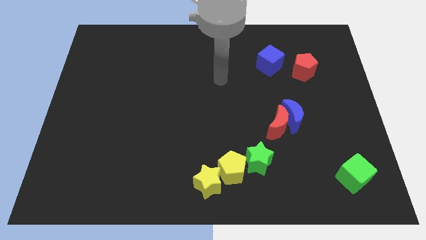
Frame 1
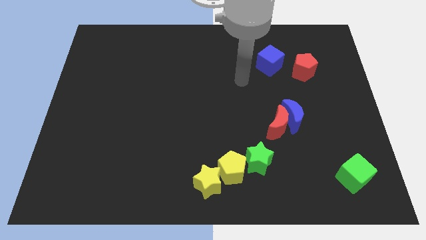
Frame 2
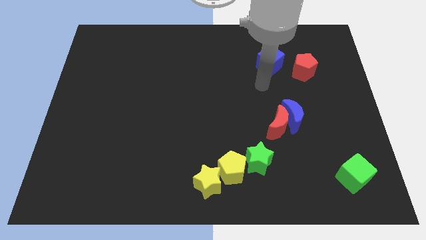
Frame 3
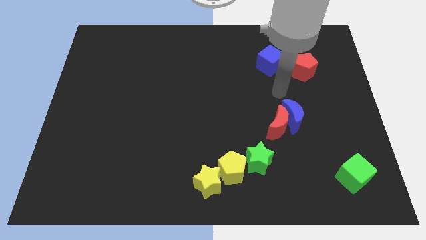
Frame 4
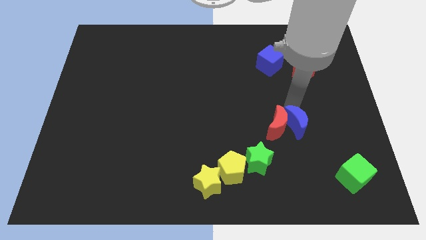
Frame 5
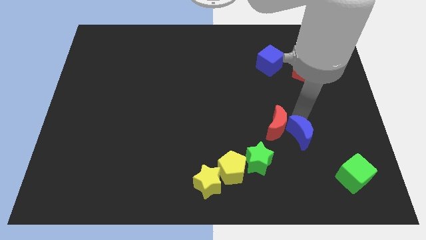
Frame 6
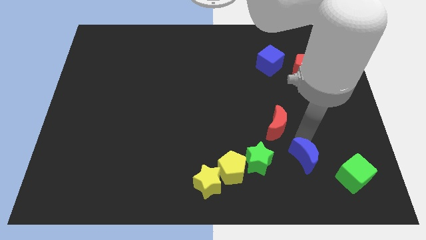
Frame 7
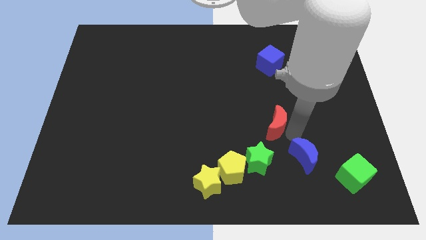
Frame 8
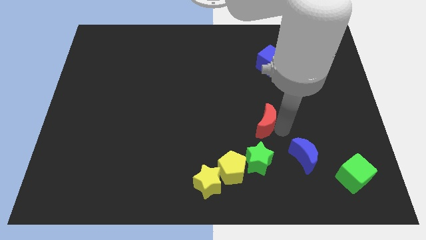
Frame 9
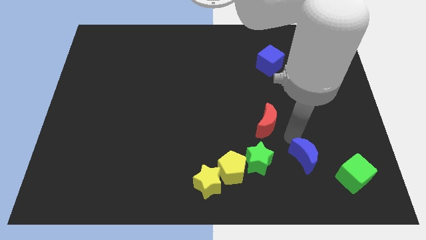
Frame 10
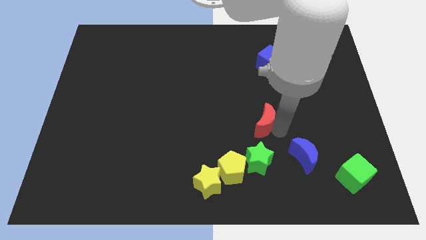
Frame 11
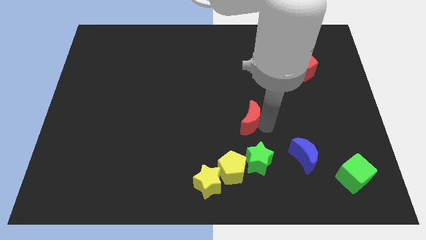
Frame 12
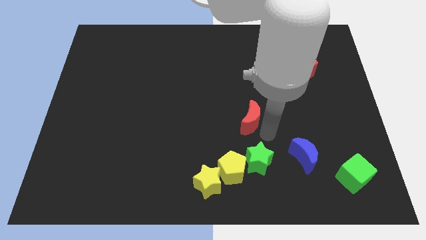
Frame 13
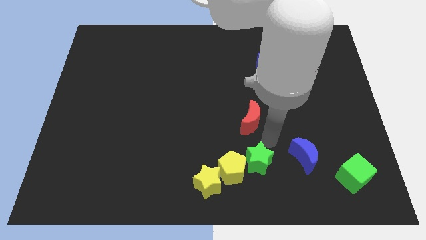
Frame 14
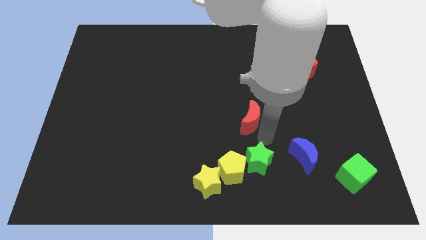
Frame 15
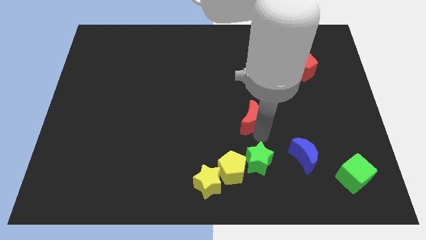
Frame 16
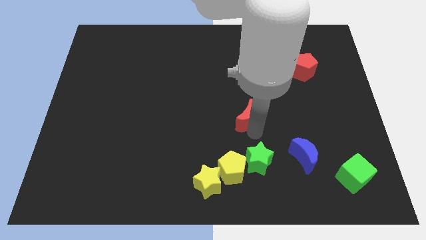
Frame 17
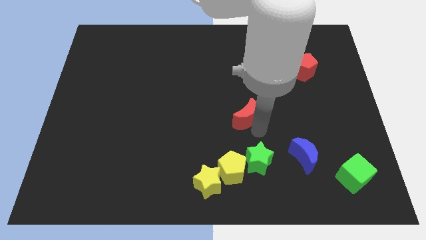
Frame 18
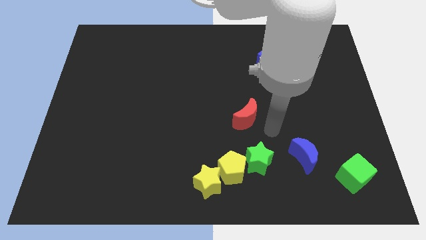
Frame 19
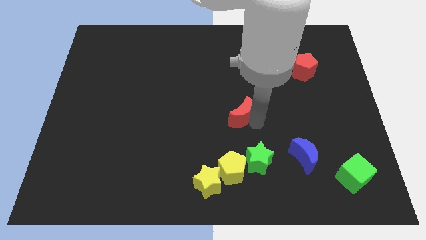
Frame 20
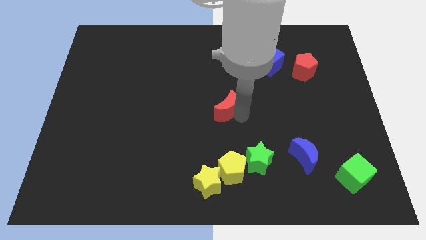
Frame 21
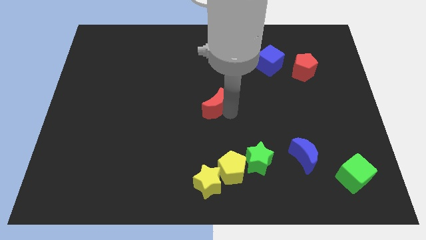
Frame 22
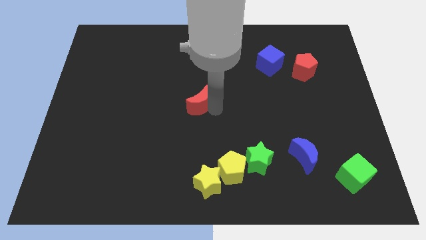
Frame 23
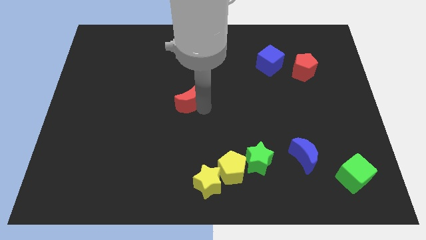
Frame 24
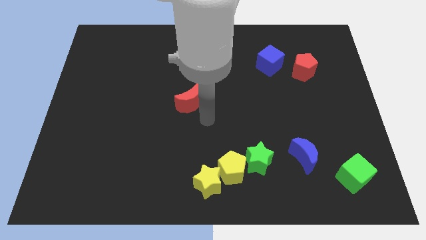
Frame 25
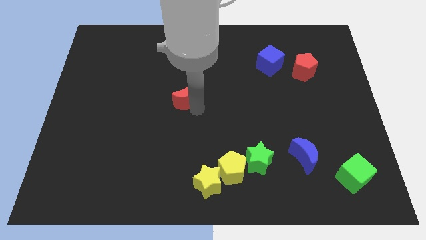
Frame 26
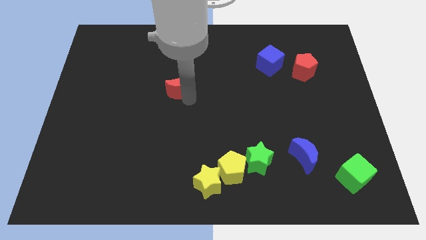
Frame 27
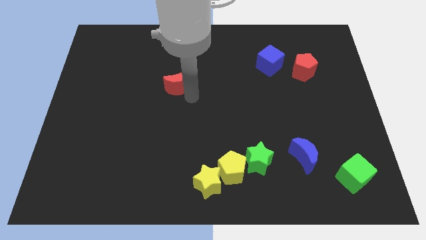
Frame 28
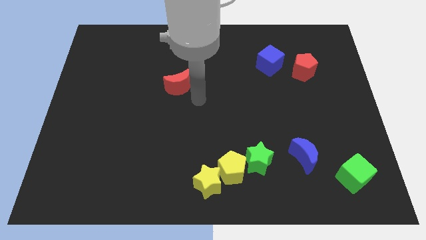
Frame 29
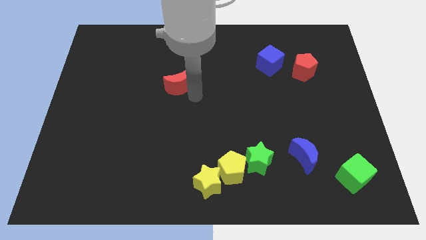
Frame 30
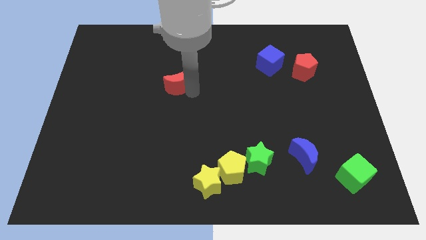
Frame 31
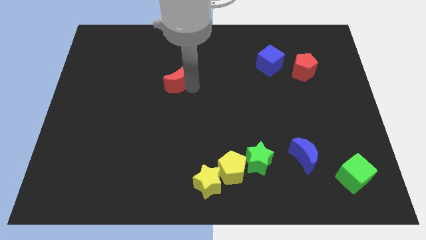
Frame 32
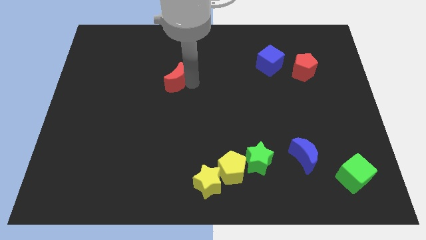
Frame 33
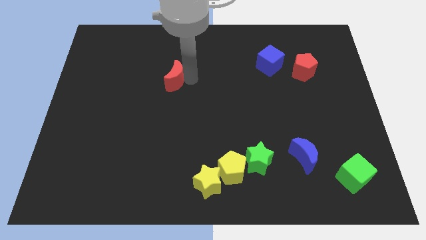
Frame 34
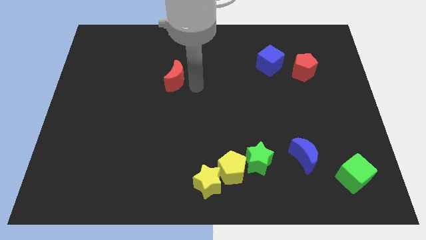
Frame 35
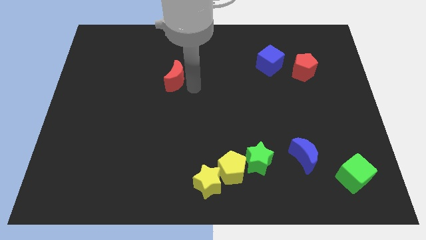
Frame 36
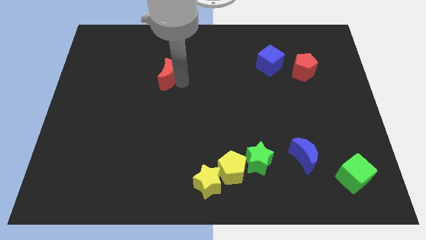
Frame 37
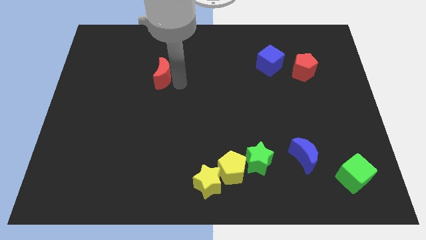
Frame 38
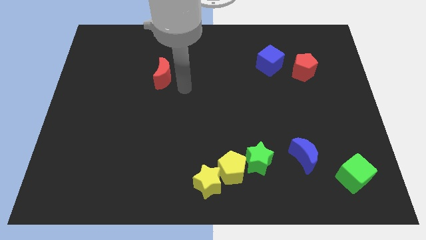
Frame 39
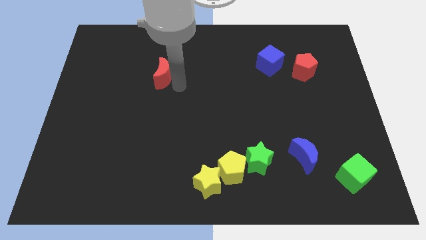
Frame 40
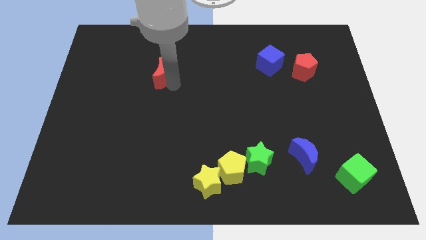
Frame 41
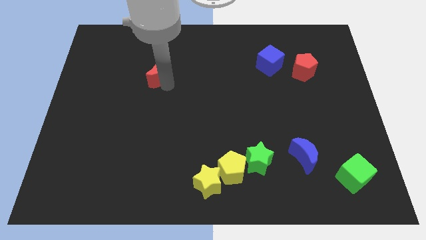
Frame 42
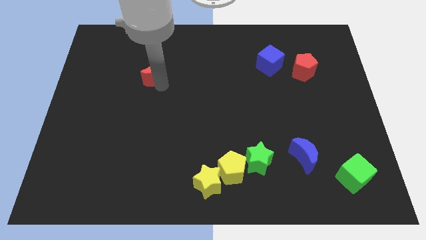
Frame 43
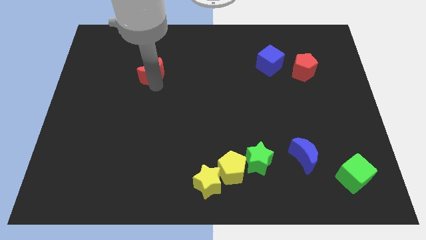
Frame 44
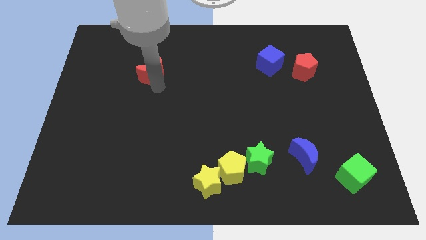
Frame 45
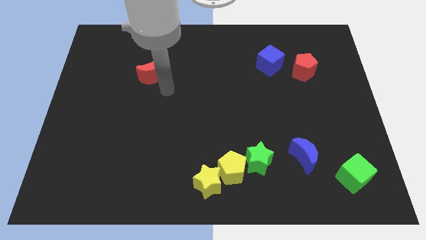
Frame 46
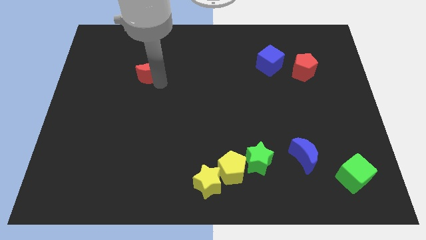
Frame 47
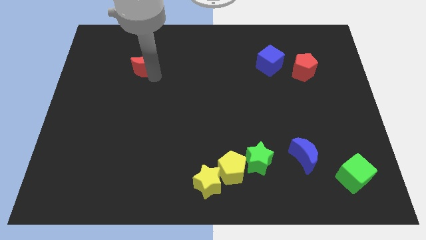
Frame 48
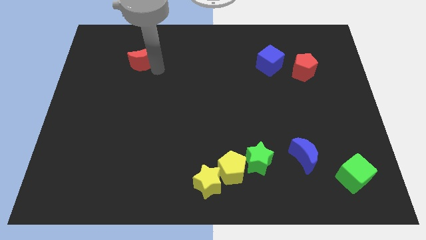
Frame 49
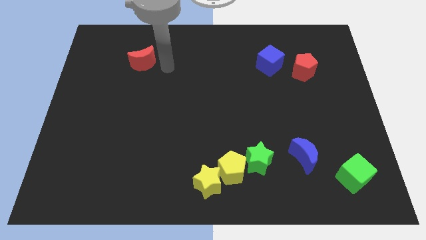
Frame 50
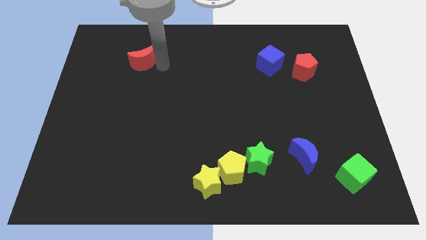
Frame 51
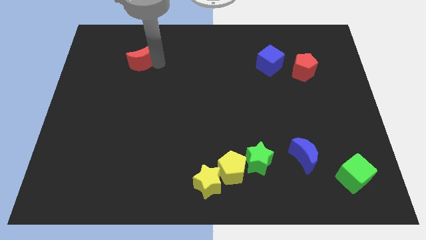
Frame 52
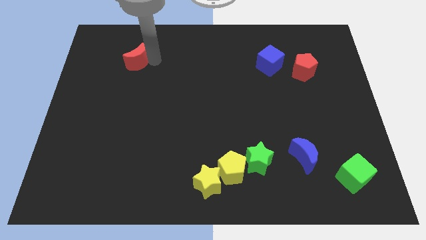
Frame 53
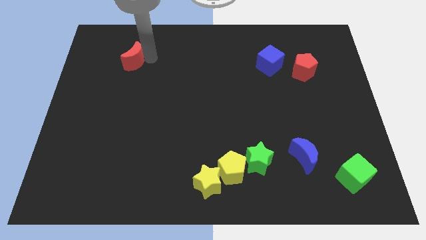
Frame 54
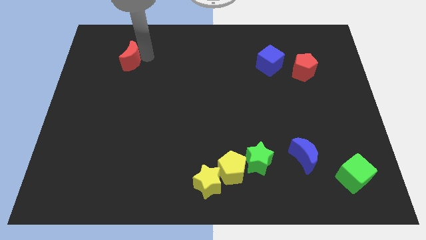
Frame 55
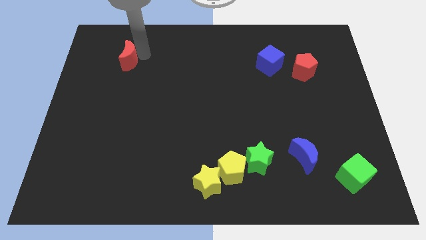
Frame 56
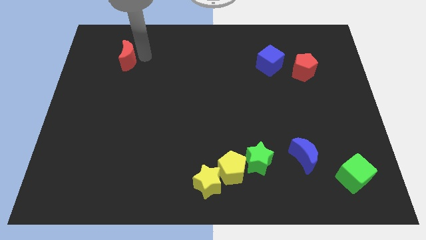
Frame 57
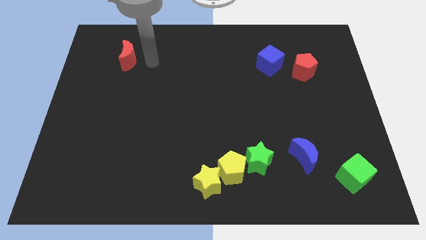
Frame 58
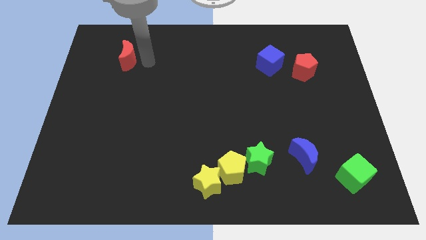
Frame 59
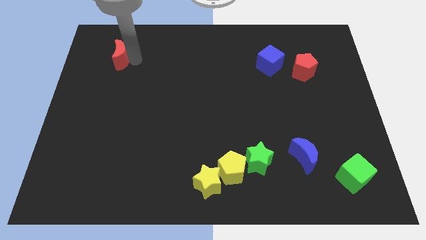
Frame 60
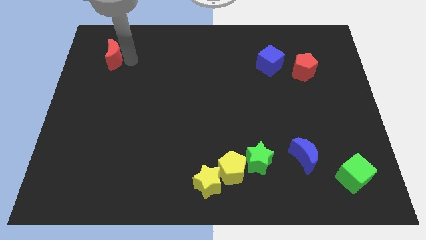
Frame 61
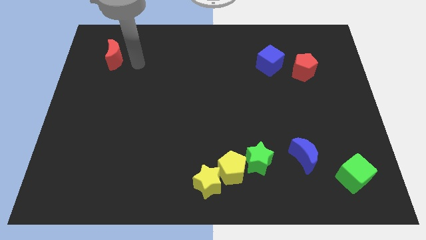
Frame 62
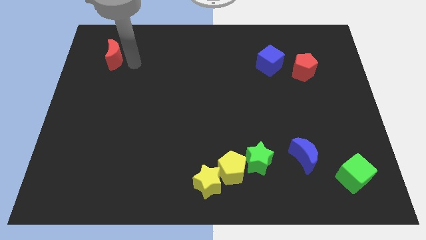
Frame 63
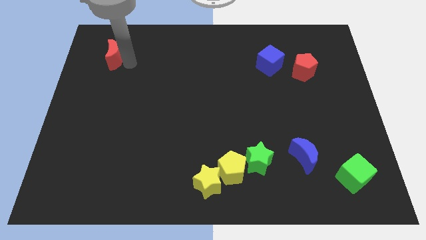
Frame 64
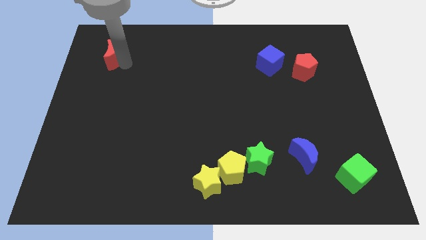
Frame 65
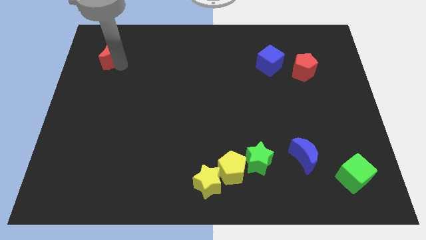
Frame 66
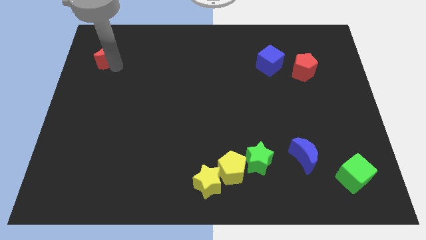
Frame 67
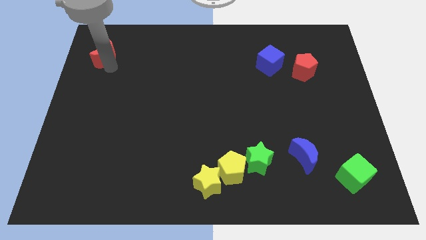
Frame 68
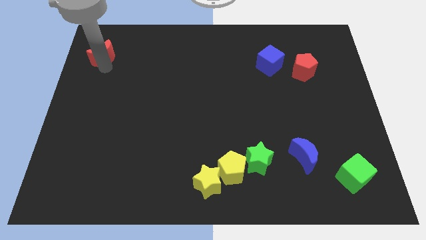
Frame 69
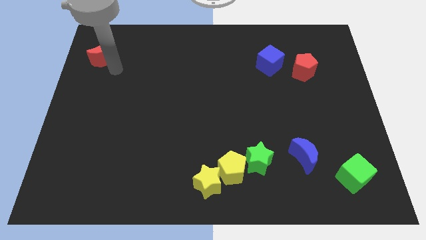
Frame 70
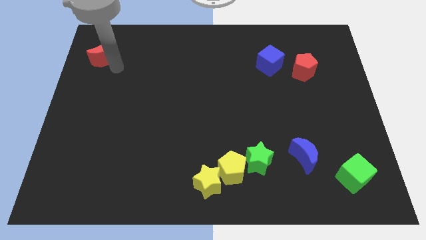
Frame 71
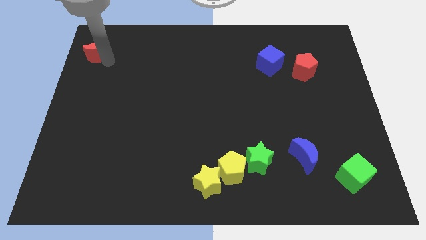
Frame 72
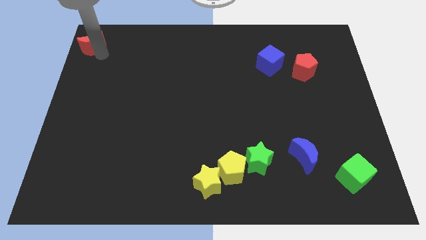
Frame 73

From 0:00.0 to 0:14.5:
move the red moon to the top left corner
